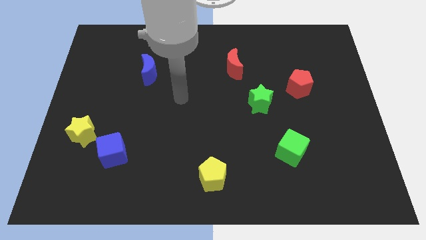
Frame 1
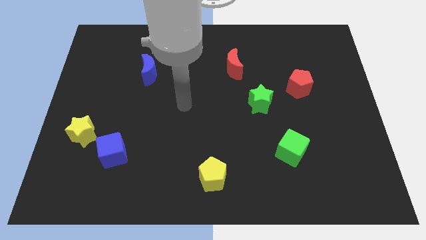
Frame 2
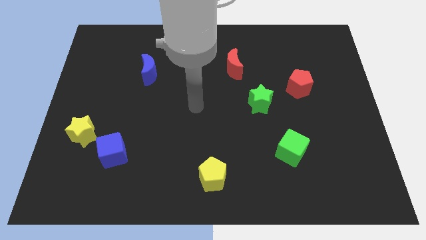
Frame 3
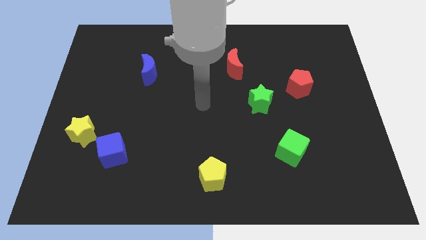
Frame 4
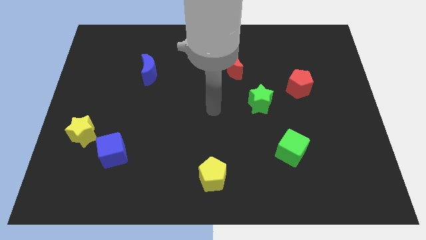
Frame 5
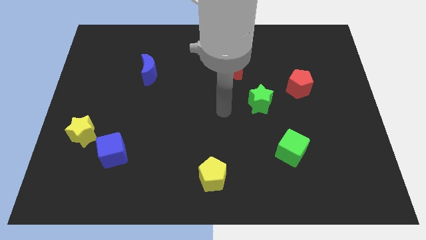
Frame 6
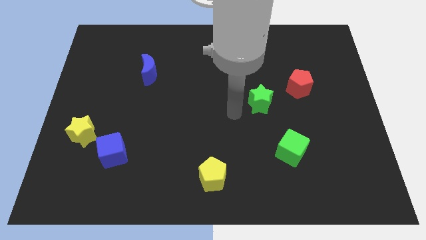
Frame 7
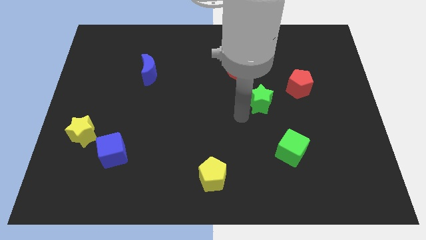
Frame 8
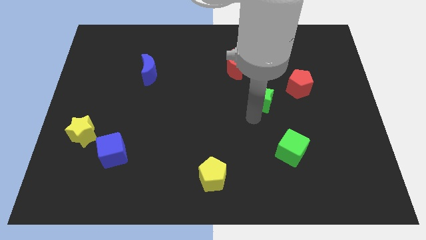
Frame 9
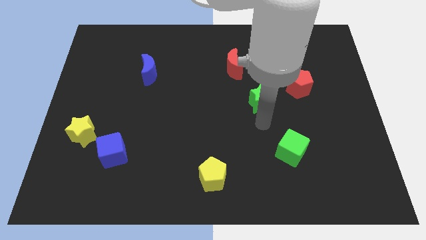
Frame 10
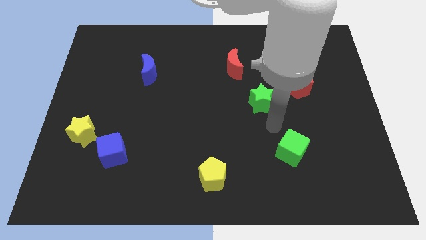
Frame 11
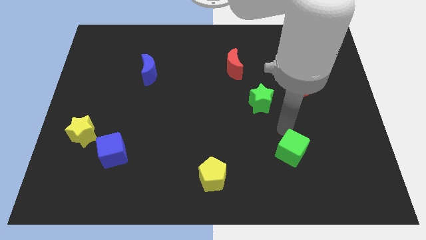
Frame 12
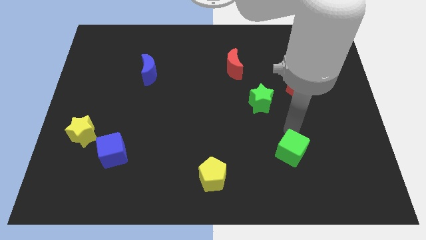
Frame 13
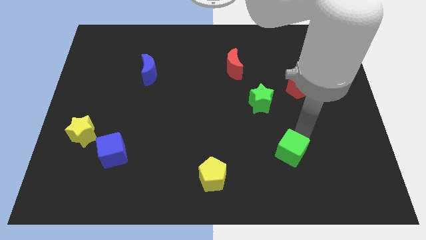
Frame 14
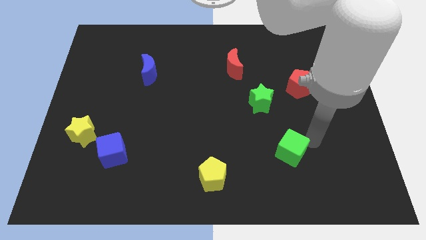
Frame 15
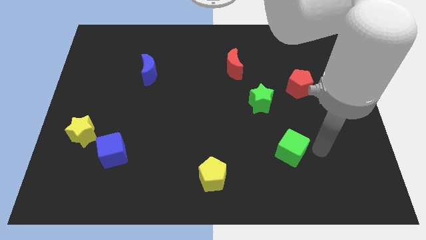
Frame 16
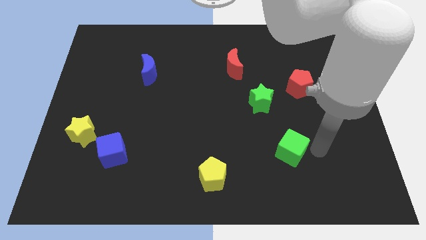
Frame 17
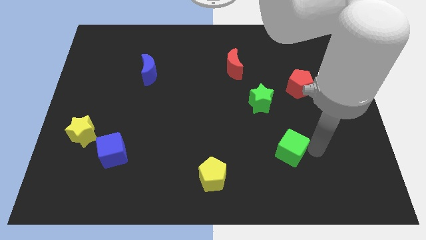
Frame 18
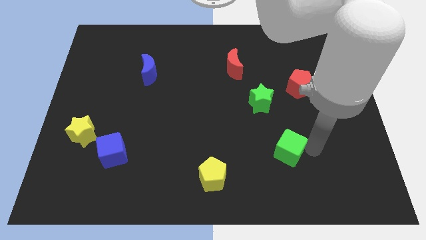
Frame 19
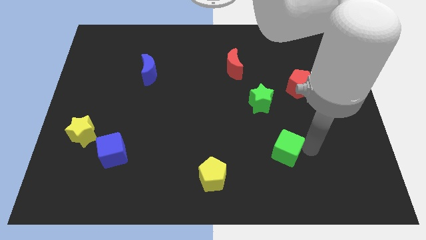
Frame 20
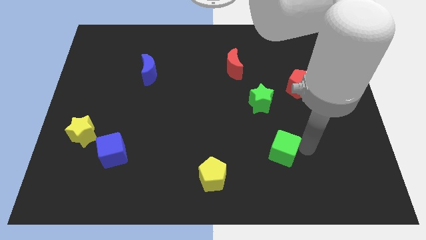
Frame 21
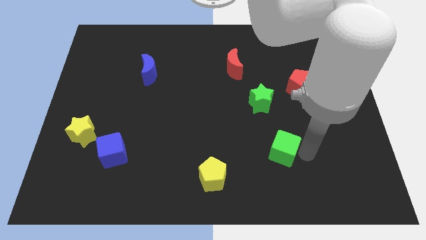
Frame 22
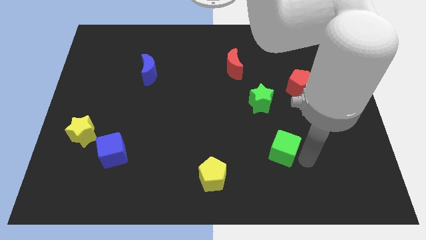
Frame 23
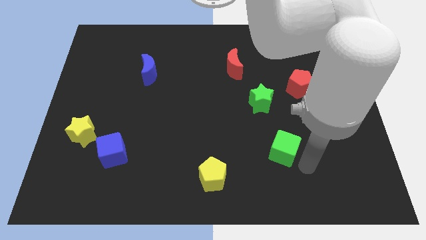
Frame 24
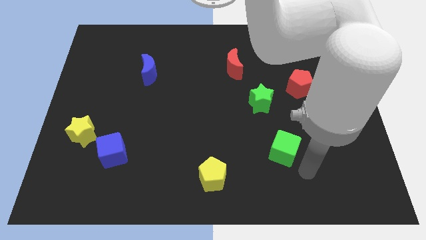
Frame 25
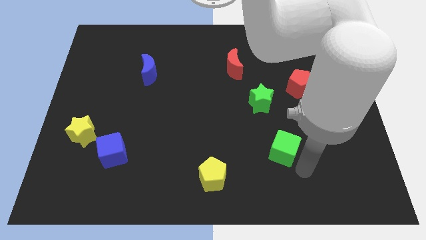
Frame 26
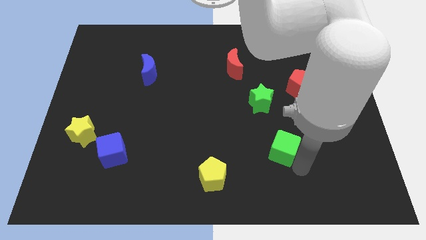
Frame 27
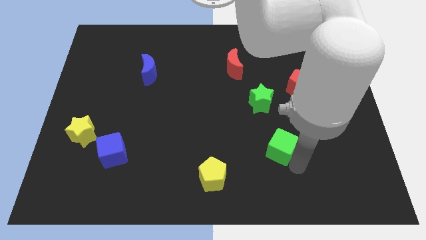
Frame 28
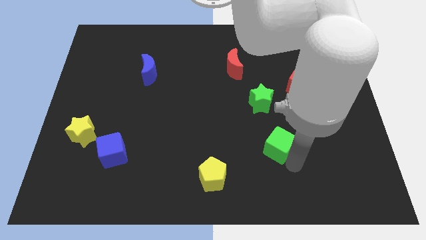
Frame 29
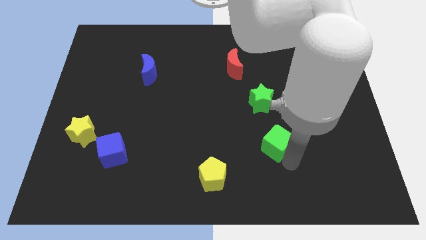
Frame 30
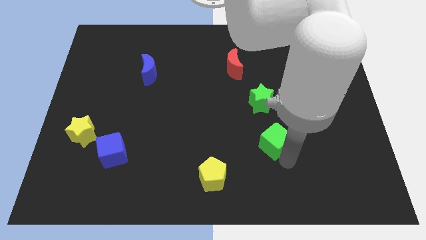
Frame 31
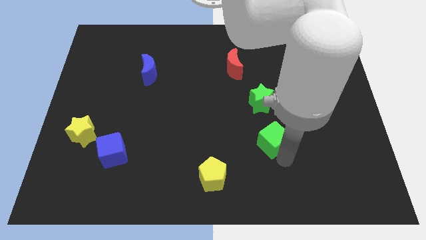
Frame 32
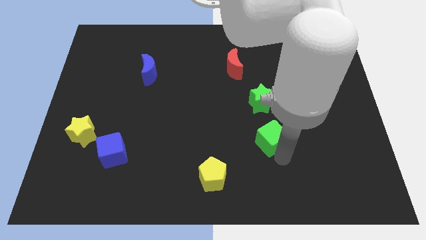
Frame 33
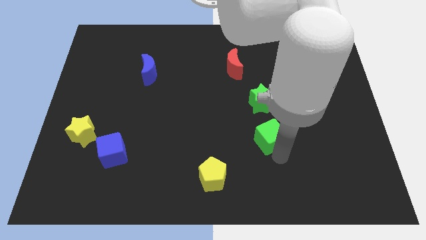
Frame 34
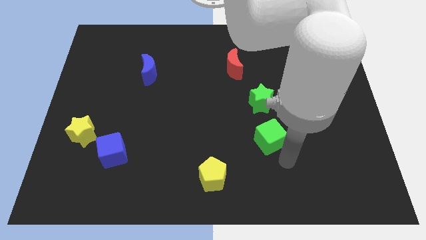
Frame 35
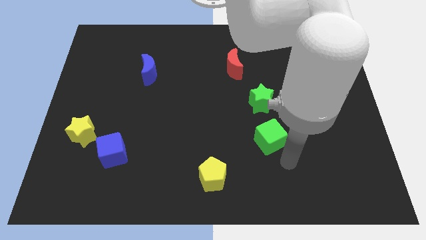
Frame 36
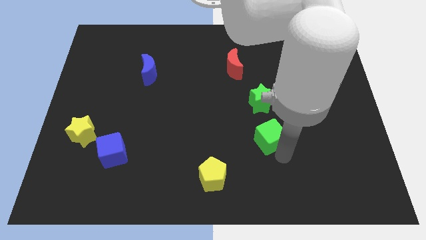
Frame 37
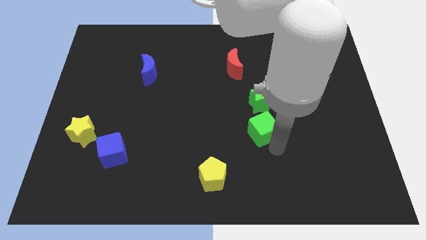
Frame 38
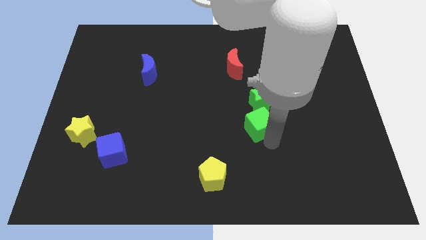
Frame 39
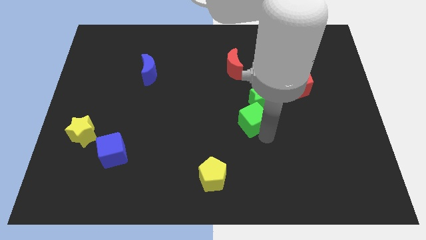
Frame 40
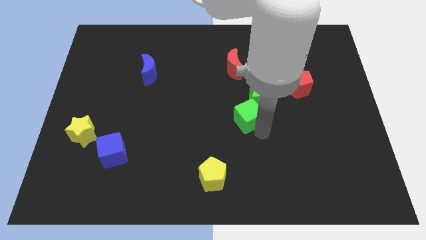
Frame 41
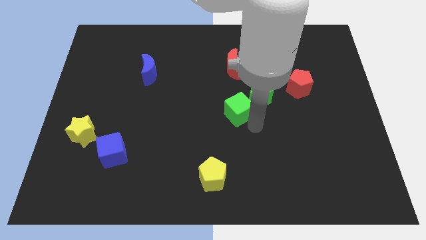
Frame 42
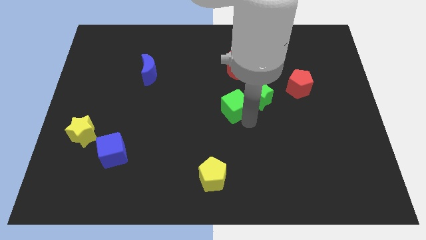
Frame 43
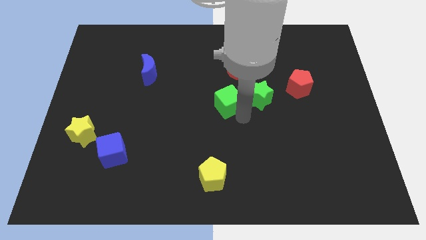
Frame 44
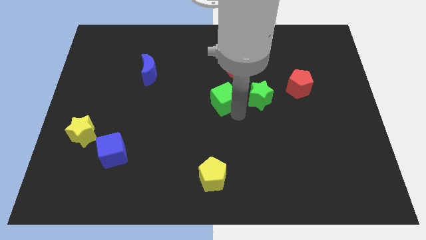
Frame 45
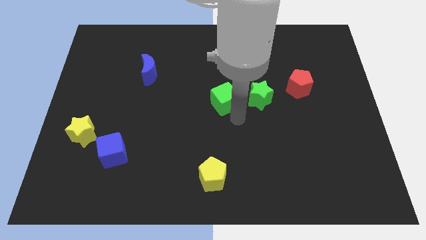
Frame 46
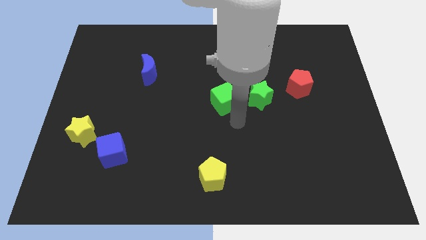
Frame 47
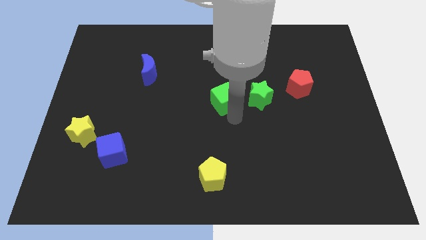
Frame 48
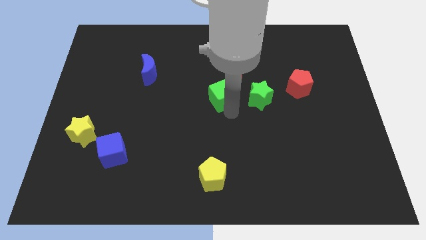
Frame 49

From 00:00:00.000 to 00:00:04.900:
slide the green cube up and left diagonally

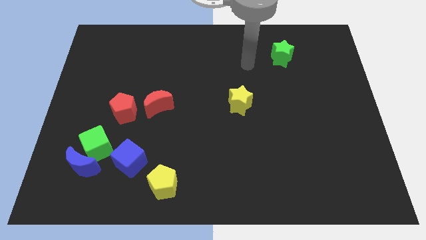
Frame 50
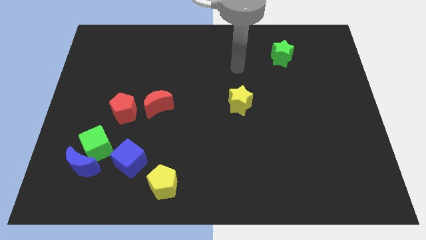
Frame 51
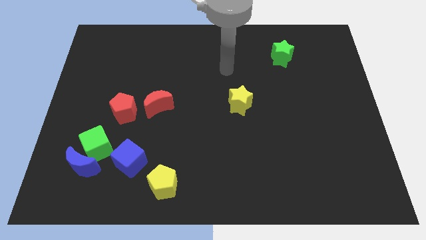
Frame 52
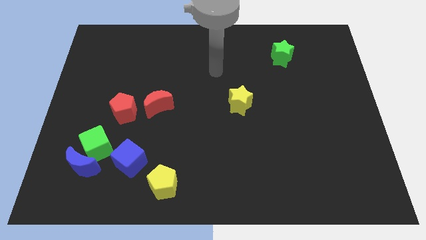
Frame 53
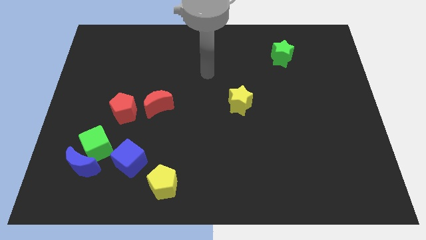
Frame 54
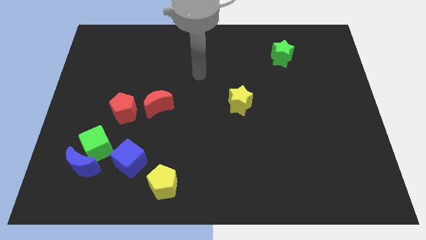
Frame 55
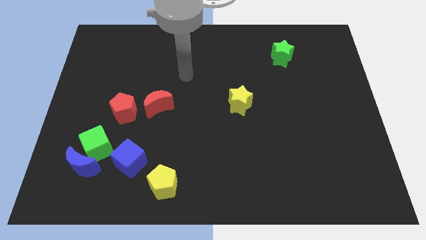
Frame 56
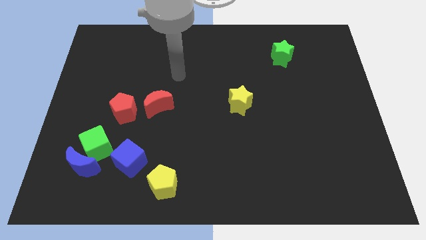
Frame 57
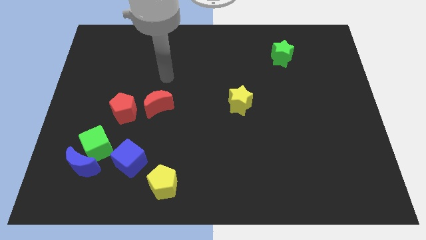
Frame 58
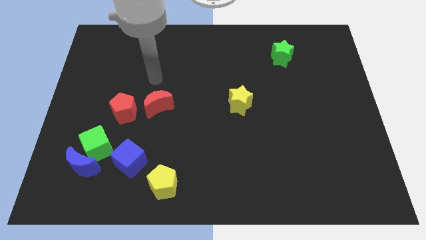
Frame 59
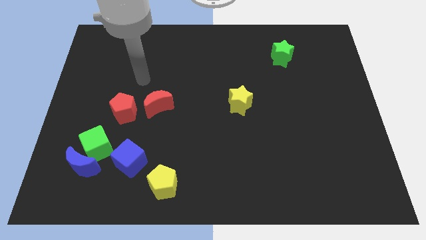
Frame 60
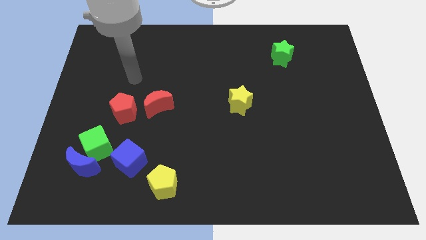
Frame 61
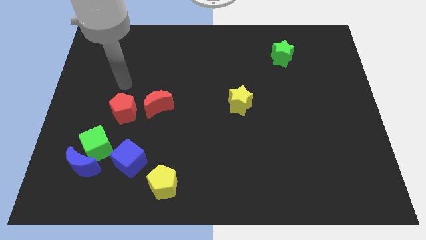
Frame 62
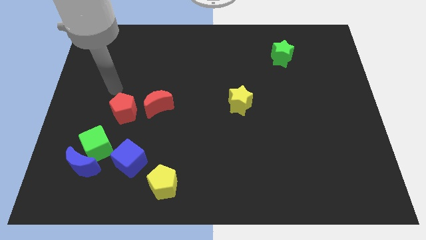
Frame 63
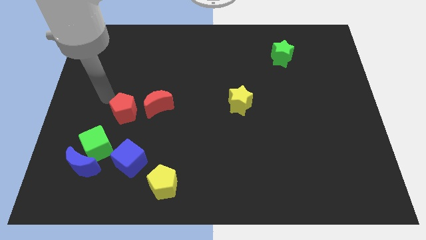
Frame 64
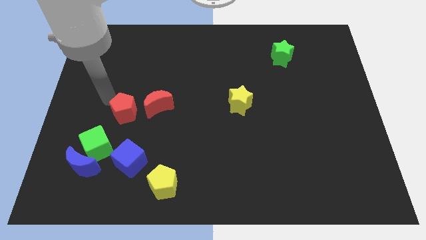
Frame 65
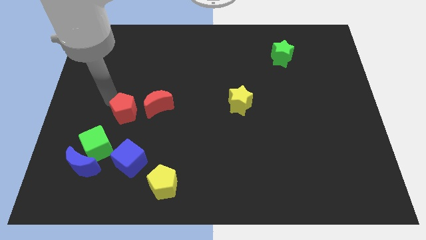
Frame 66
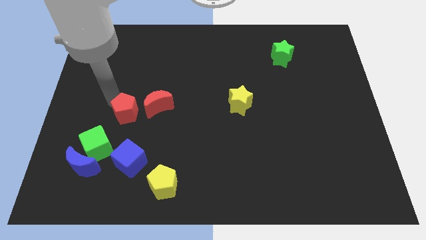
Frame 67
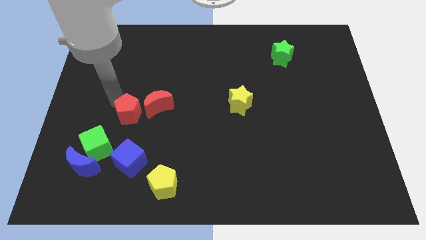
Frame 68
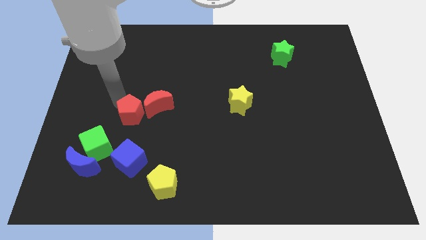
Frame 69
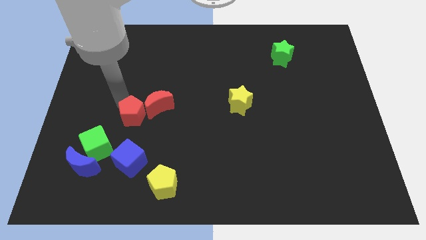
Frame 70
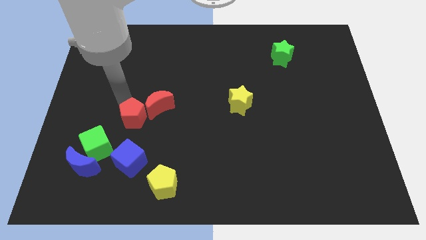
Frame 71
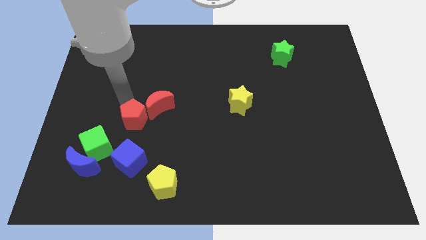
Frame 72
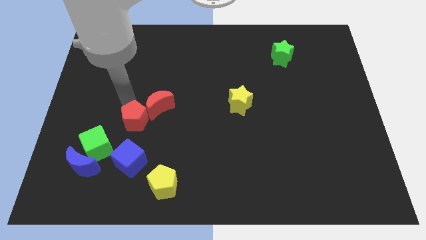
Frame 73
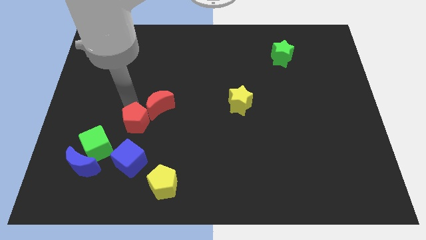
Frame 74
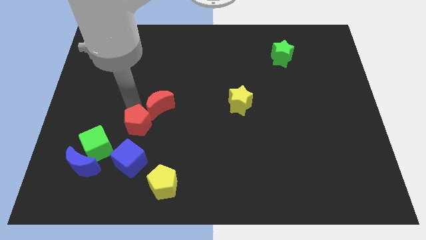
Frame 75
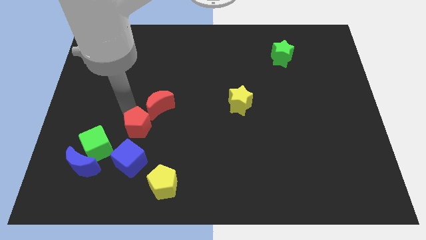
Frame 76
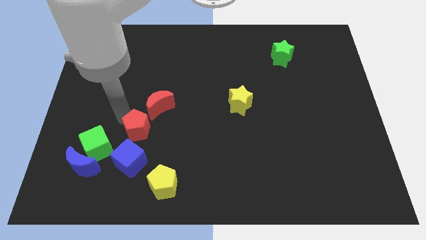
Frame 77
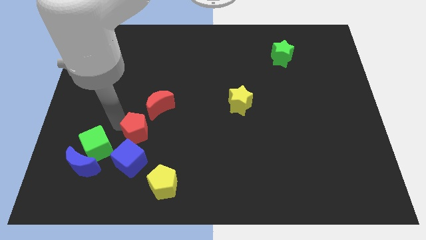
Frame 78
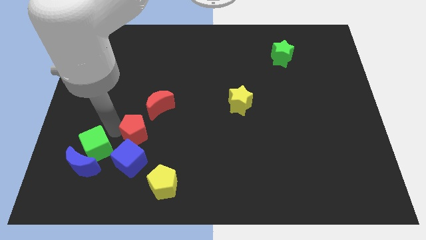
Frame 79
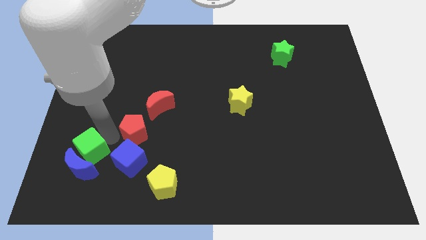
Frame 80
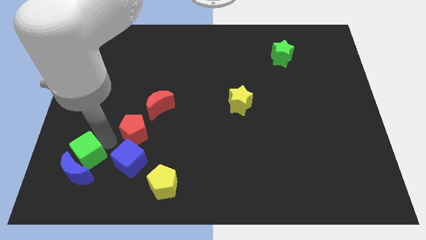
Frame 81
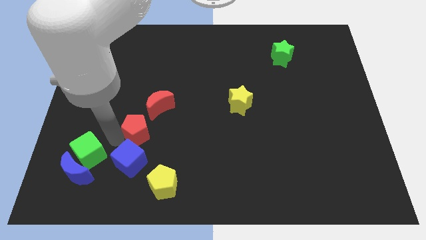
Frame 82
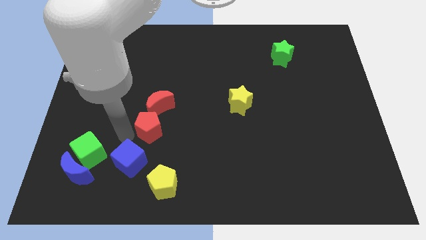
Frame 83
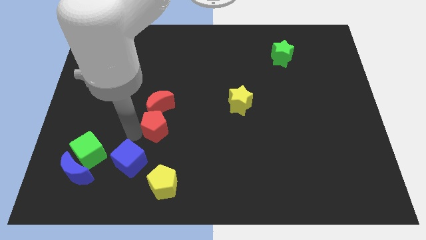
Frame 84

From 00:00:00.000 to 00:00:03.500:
slightly slide the red pentagon to the right
